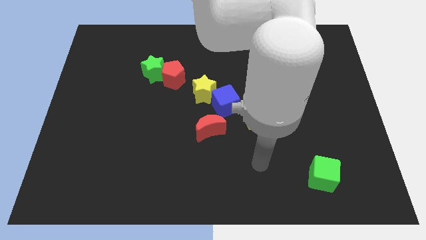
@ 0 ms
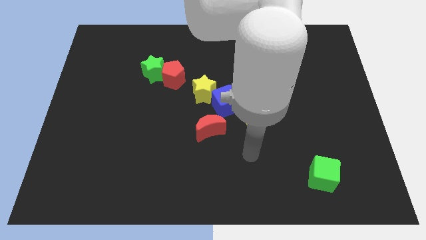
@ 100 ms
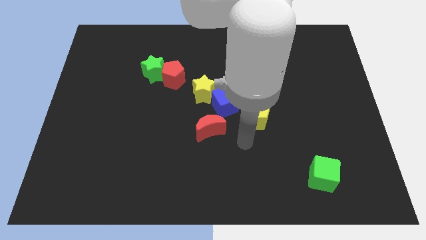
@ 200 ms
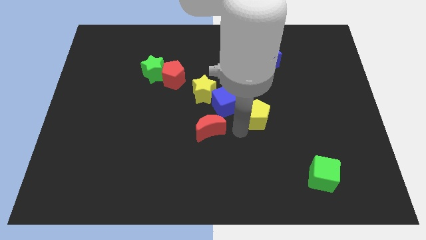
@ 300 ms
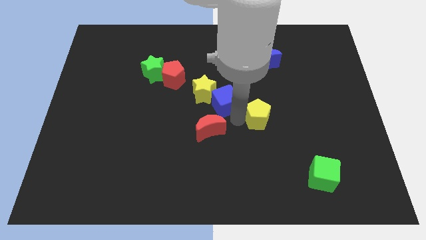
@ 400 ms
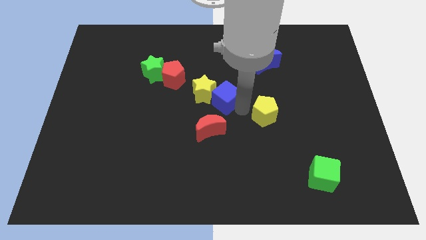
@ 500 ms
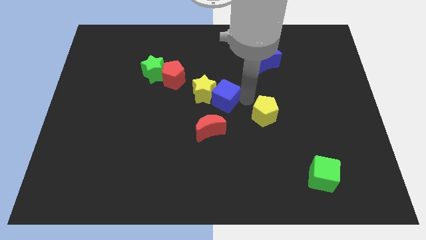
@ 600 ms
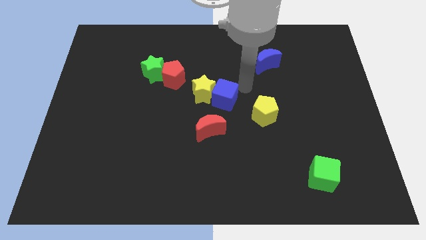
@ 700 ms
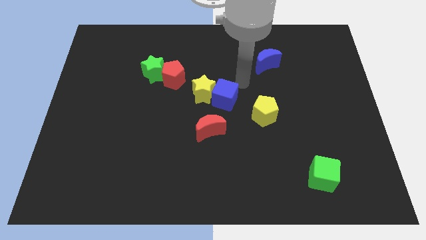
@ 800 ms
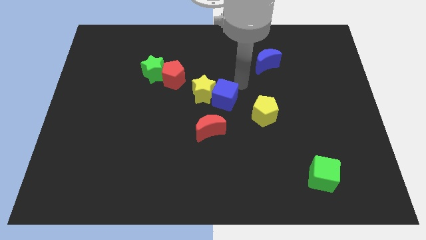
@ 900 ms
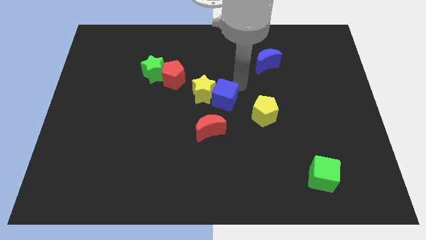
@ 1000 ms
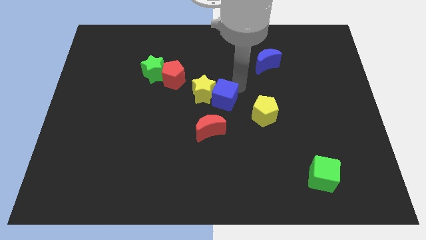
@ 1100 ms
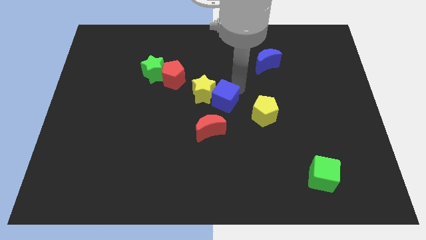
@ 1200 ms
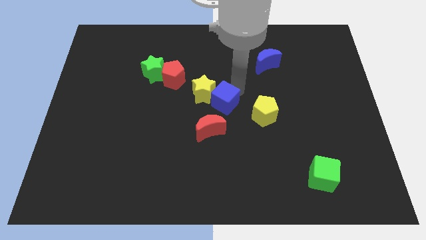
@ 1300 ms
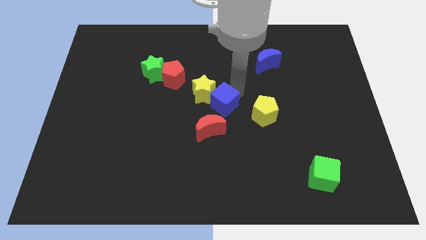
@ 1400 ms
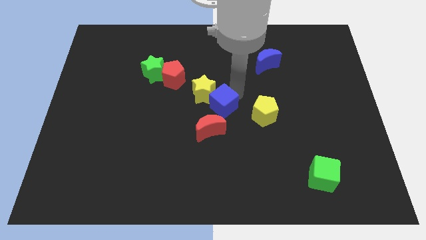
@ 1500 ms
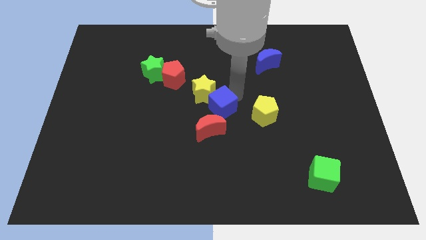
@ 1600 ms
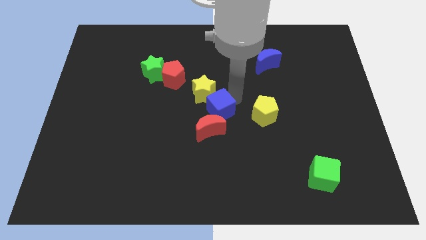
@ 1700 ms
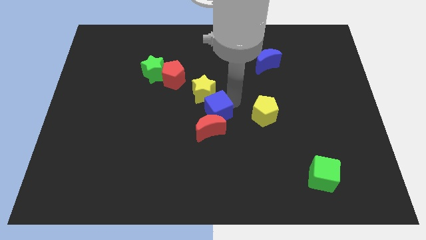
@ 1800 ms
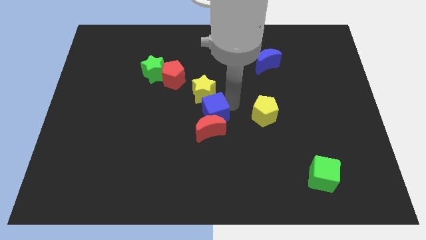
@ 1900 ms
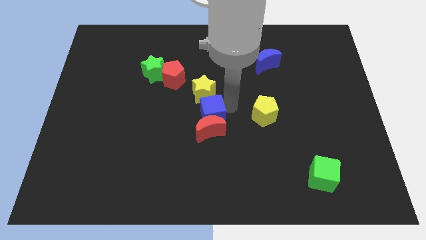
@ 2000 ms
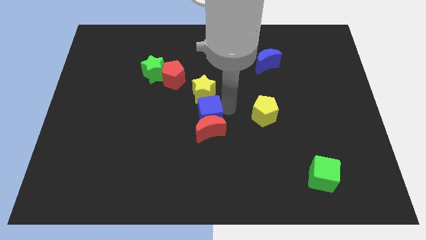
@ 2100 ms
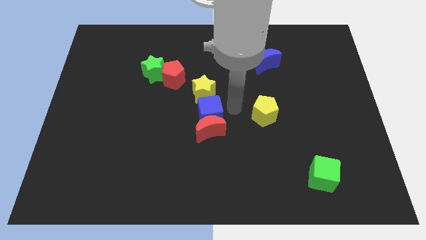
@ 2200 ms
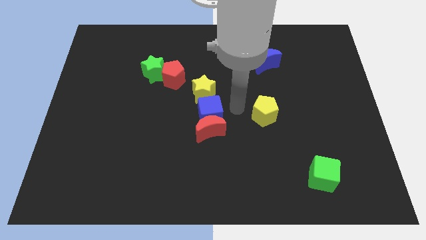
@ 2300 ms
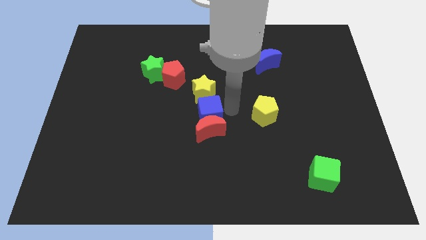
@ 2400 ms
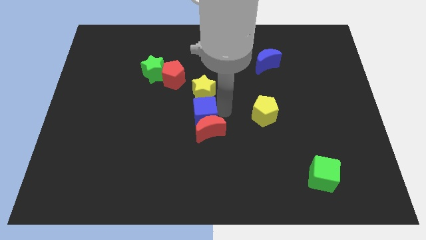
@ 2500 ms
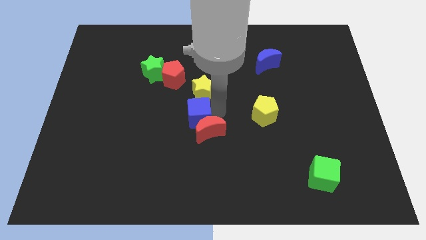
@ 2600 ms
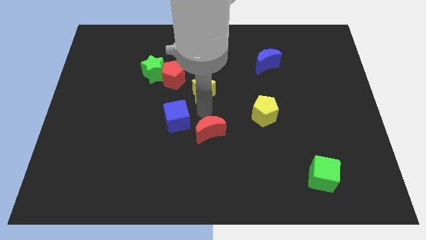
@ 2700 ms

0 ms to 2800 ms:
move the blue cube slightly down and then left

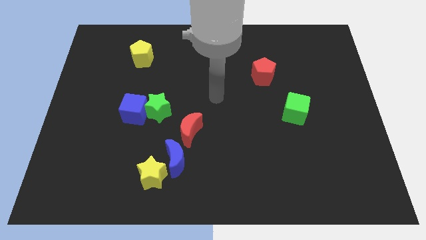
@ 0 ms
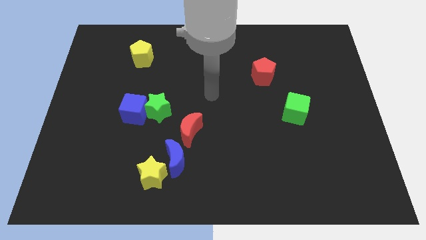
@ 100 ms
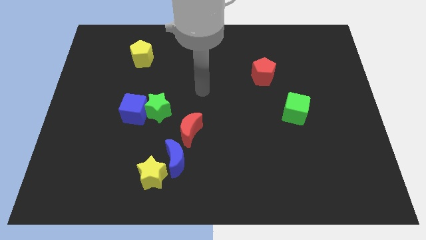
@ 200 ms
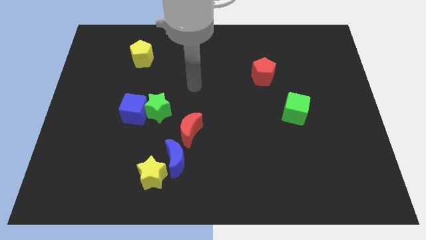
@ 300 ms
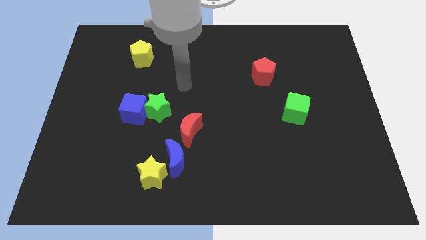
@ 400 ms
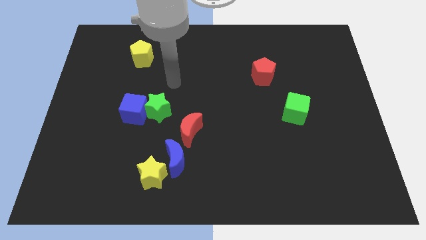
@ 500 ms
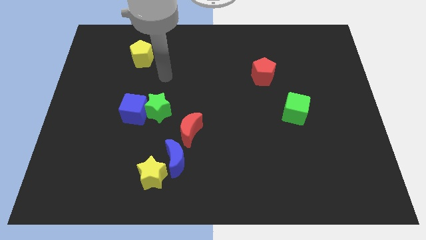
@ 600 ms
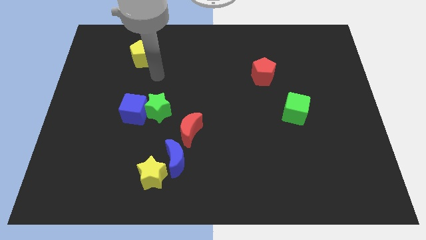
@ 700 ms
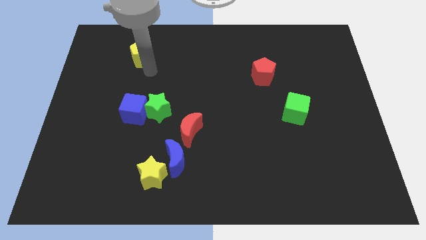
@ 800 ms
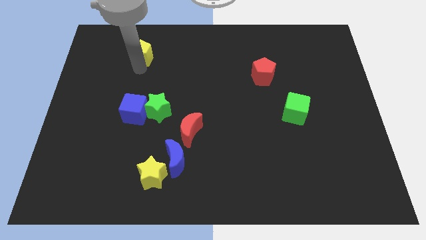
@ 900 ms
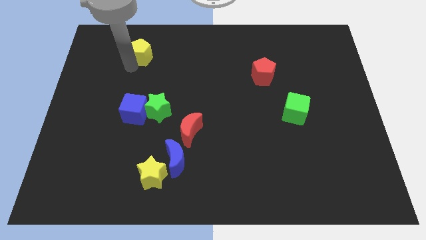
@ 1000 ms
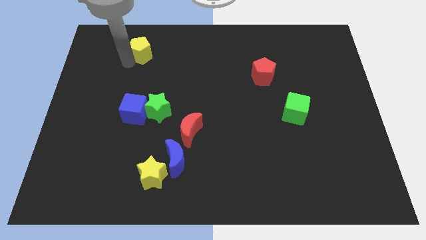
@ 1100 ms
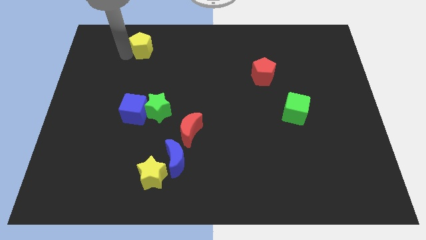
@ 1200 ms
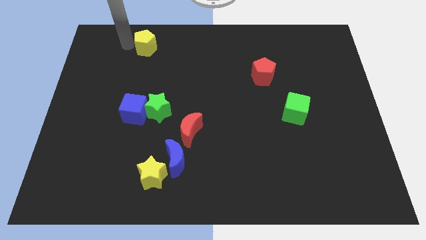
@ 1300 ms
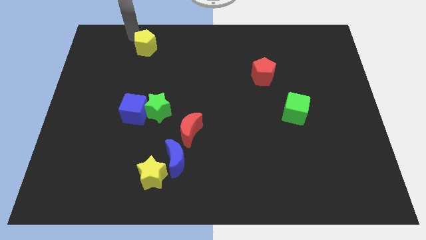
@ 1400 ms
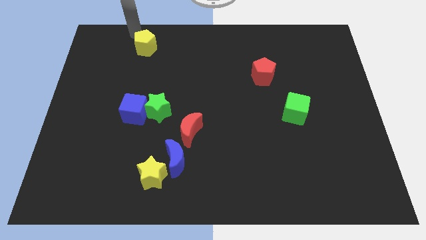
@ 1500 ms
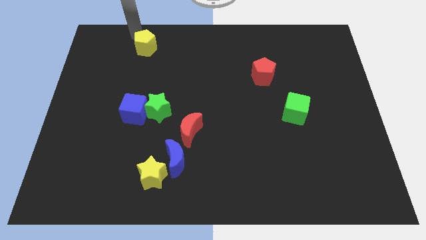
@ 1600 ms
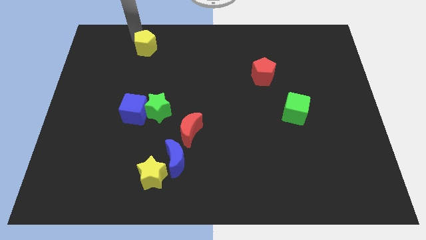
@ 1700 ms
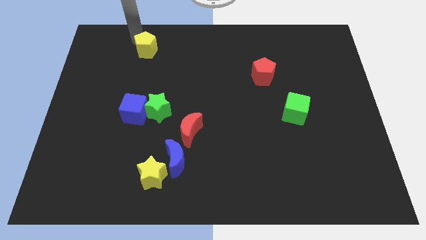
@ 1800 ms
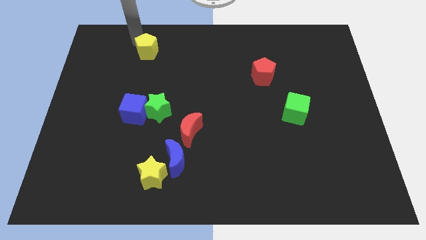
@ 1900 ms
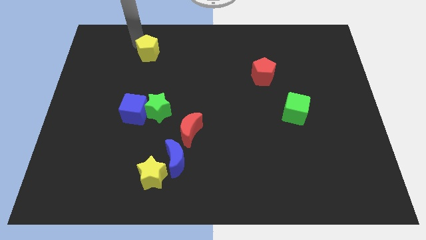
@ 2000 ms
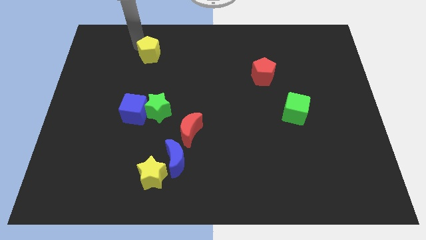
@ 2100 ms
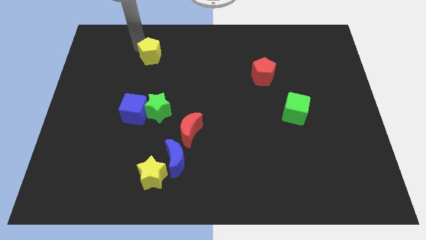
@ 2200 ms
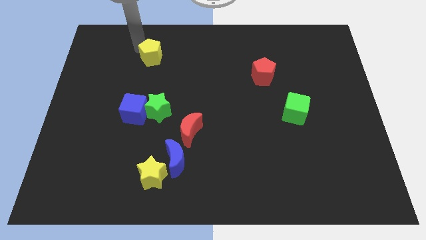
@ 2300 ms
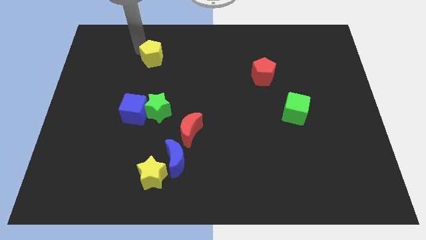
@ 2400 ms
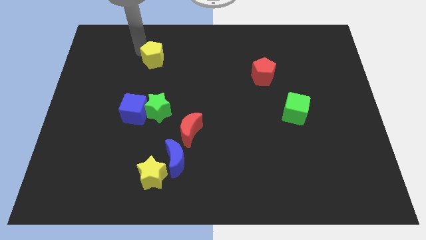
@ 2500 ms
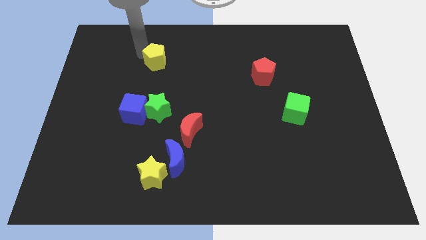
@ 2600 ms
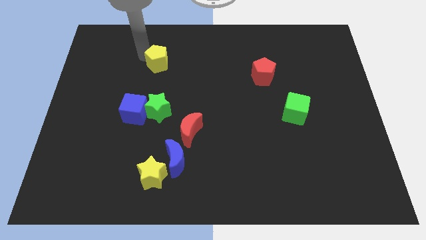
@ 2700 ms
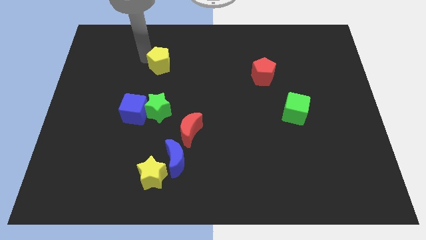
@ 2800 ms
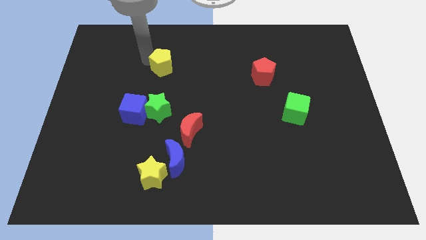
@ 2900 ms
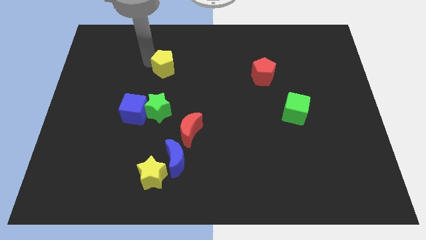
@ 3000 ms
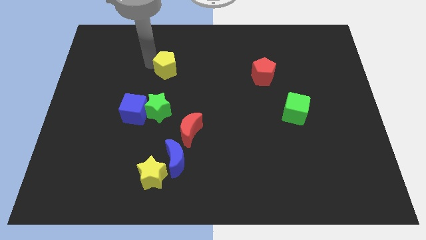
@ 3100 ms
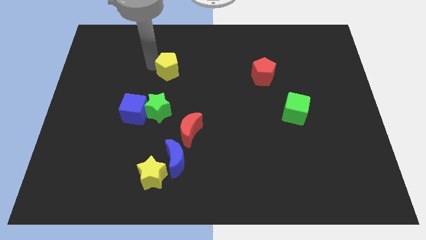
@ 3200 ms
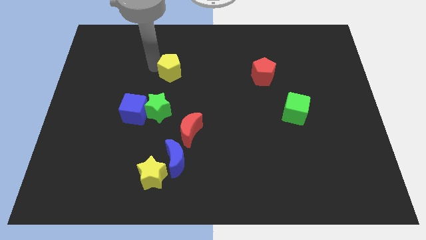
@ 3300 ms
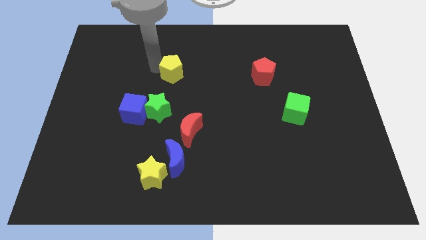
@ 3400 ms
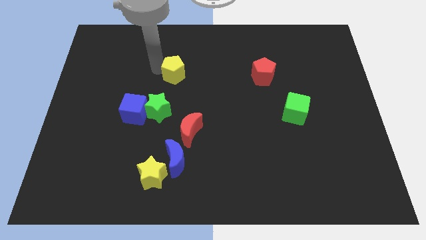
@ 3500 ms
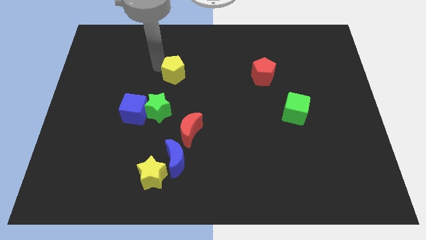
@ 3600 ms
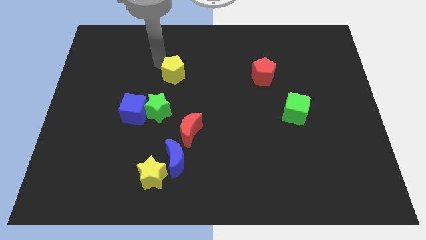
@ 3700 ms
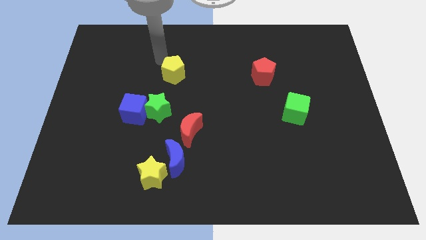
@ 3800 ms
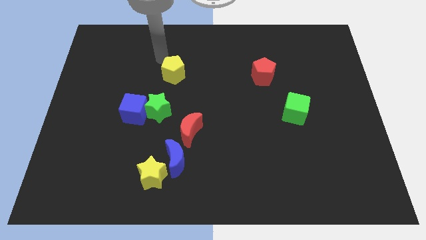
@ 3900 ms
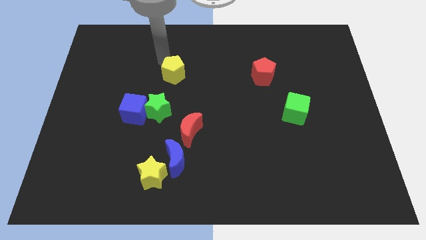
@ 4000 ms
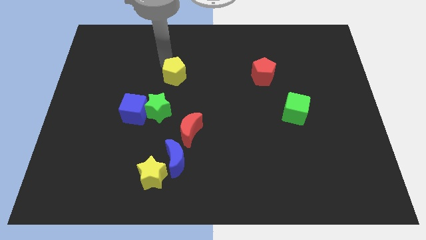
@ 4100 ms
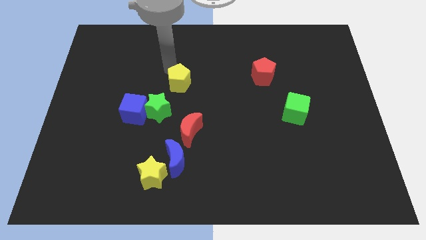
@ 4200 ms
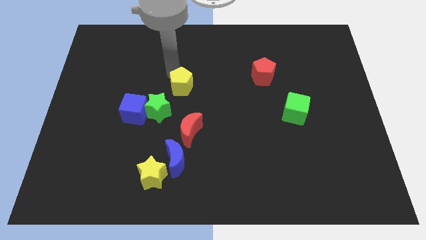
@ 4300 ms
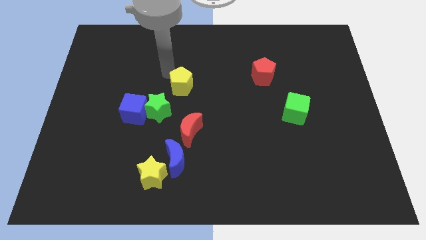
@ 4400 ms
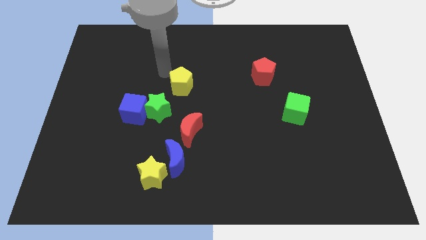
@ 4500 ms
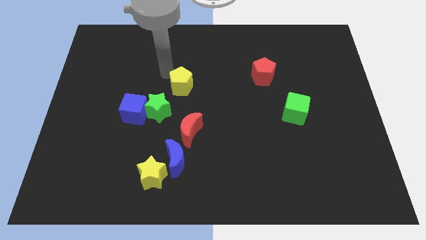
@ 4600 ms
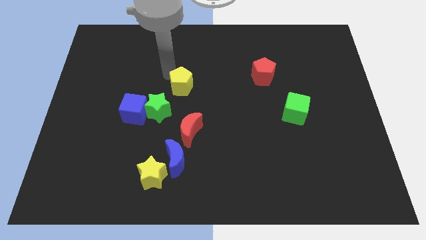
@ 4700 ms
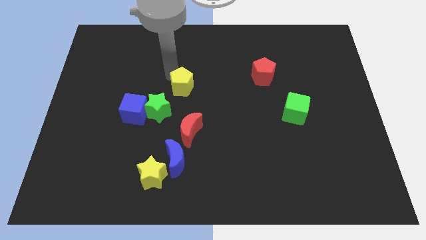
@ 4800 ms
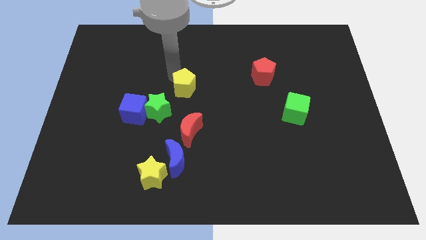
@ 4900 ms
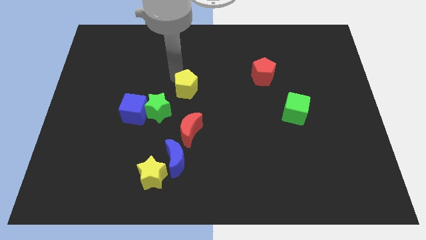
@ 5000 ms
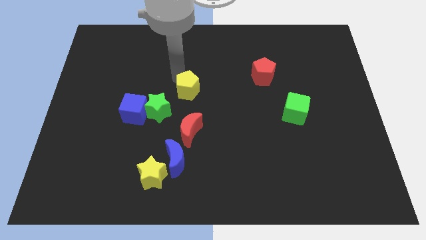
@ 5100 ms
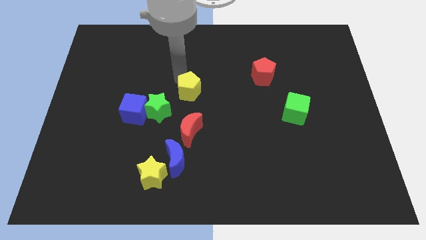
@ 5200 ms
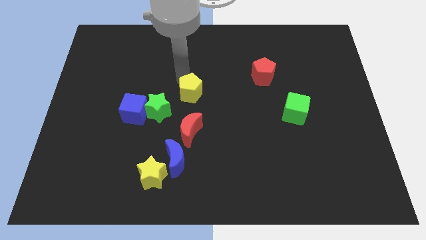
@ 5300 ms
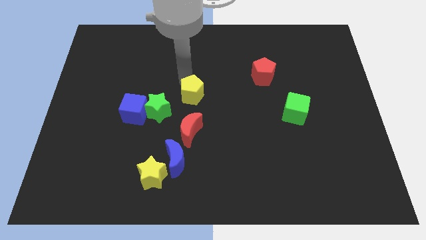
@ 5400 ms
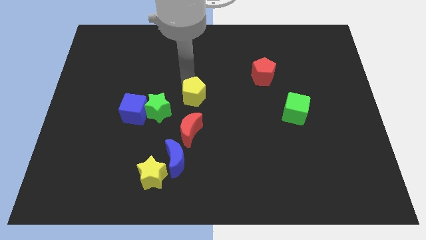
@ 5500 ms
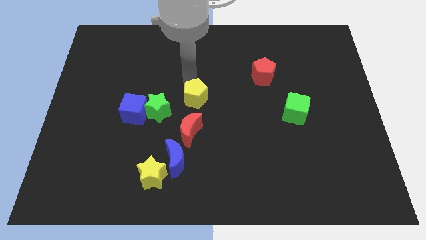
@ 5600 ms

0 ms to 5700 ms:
move the yellow pentagon downwards and to the right
